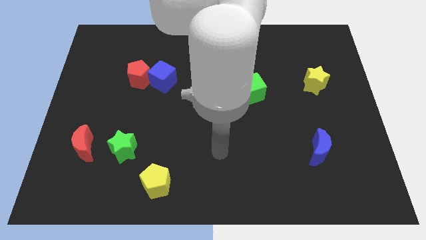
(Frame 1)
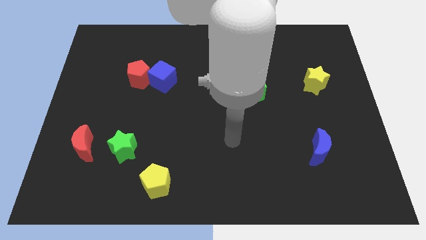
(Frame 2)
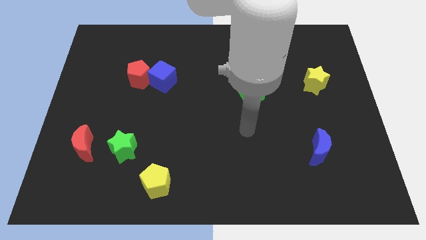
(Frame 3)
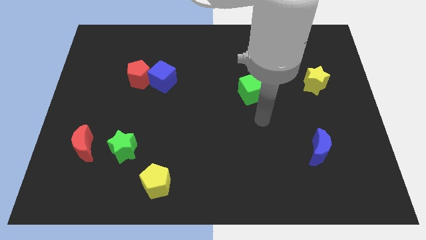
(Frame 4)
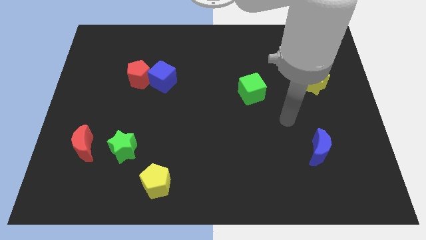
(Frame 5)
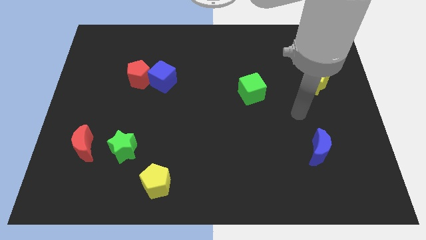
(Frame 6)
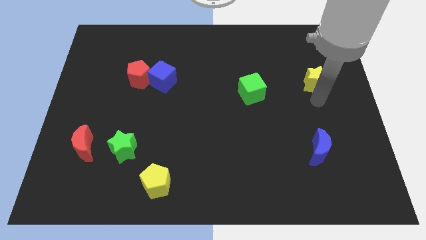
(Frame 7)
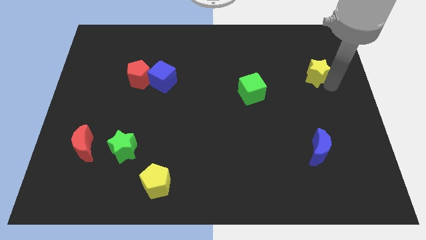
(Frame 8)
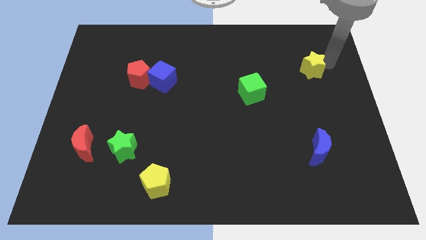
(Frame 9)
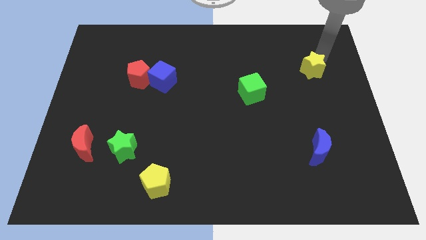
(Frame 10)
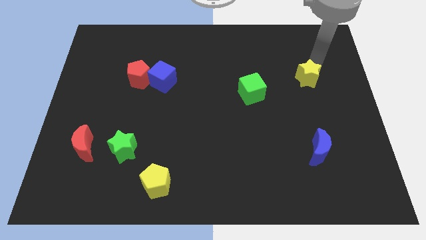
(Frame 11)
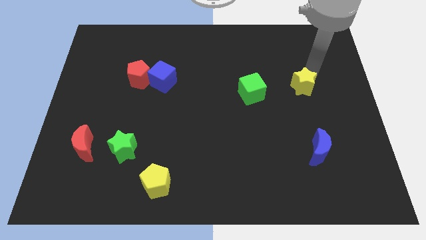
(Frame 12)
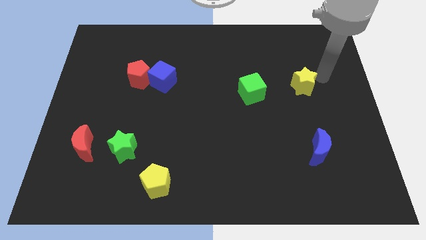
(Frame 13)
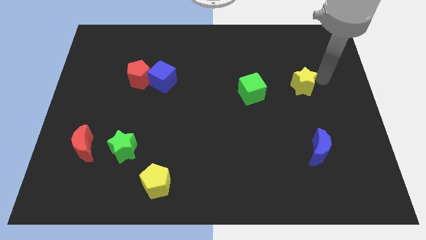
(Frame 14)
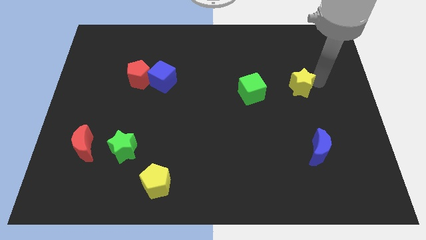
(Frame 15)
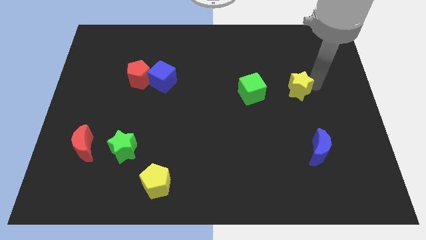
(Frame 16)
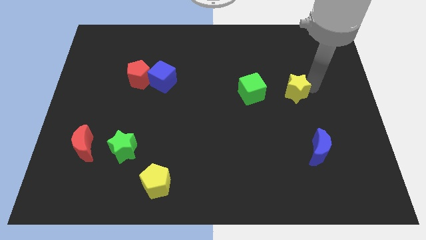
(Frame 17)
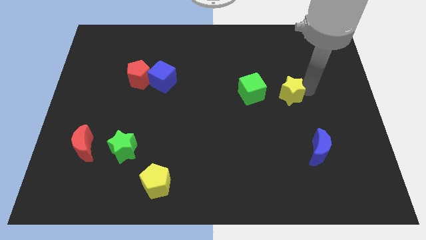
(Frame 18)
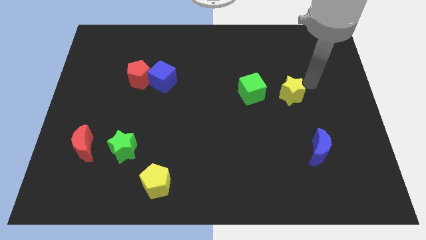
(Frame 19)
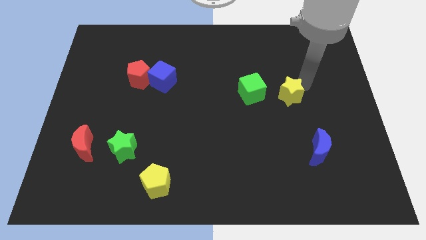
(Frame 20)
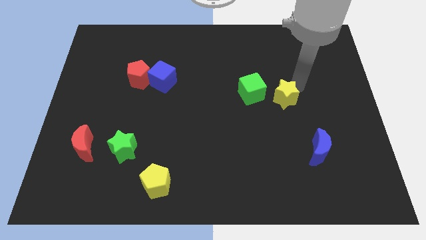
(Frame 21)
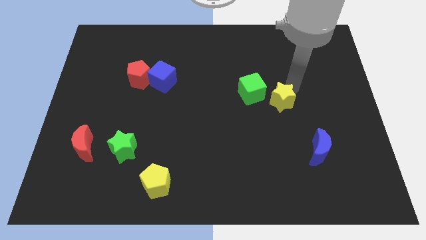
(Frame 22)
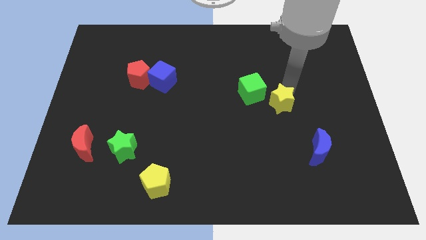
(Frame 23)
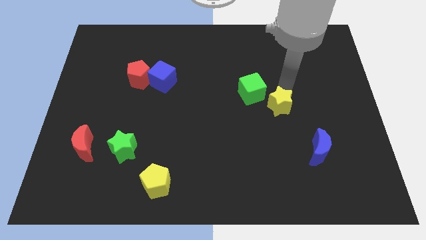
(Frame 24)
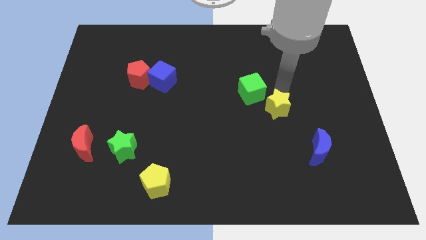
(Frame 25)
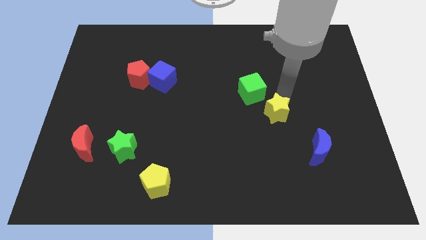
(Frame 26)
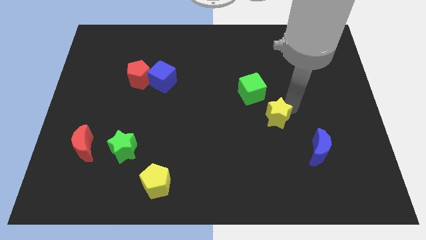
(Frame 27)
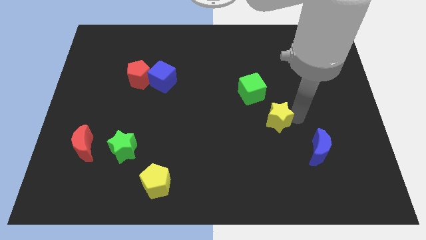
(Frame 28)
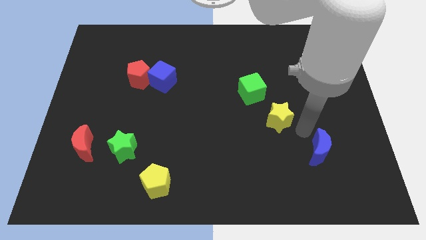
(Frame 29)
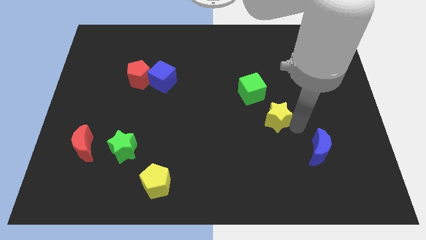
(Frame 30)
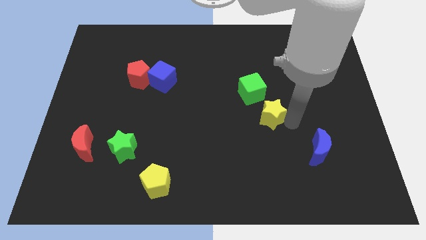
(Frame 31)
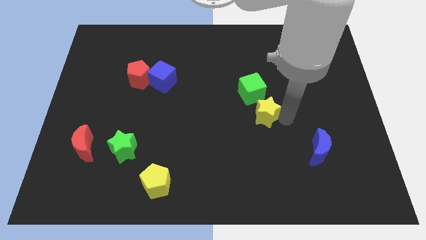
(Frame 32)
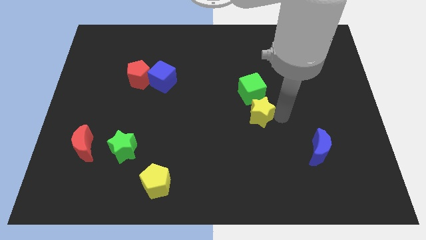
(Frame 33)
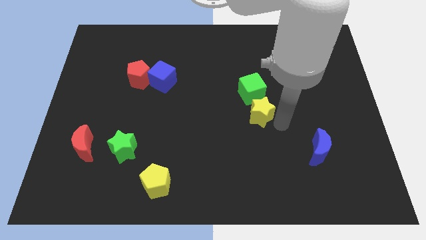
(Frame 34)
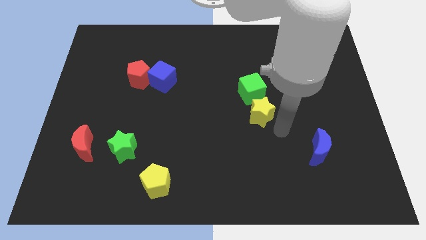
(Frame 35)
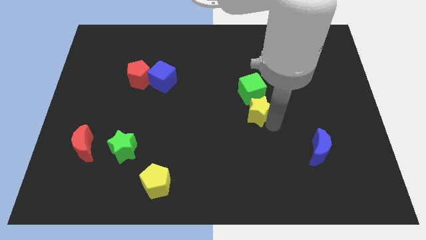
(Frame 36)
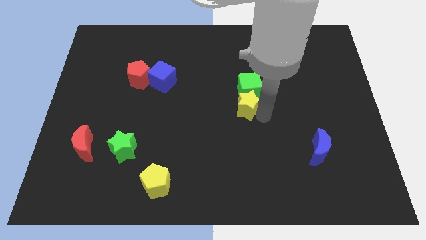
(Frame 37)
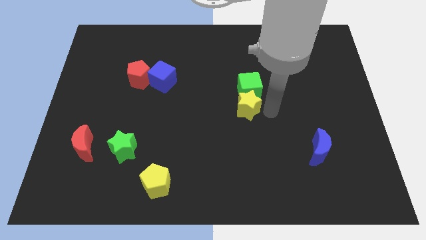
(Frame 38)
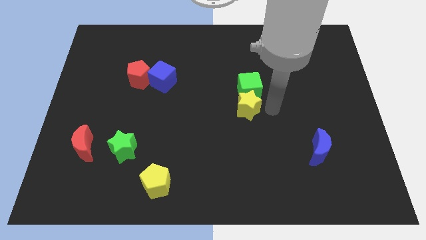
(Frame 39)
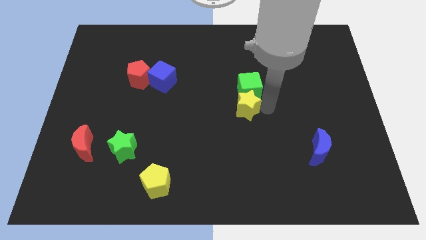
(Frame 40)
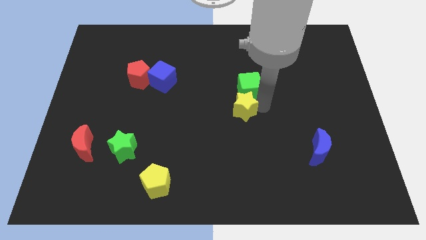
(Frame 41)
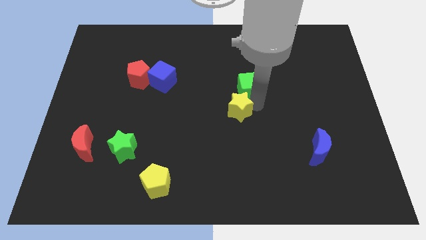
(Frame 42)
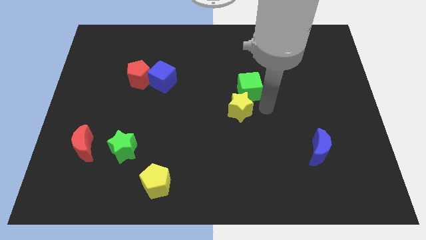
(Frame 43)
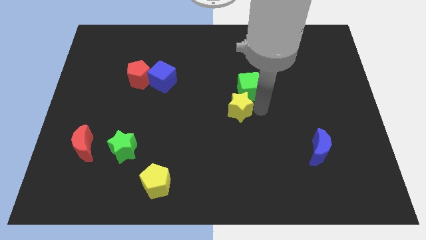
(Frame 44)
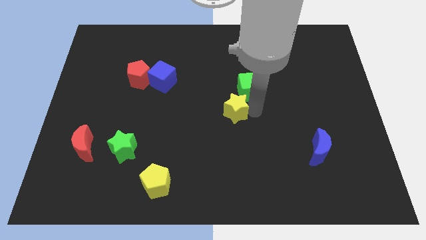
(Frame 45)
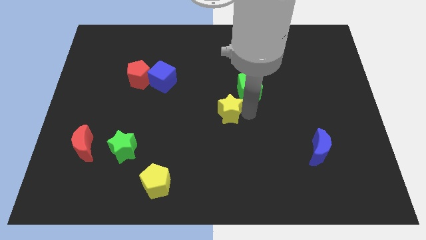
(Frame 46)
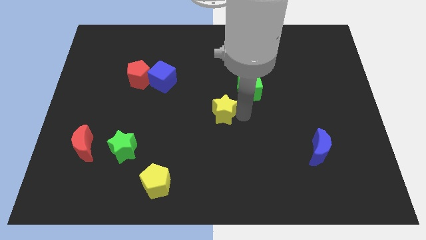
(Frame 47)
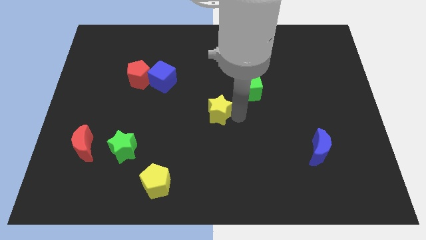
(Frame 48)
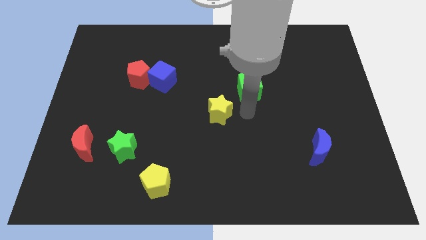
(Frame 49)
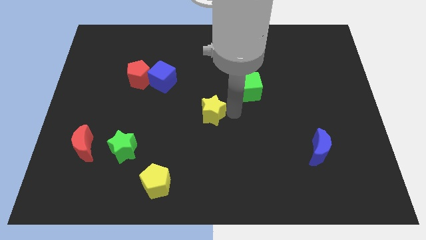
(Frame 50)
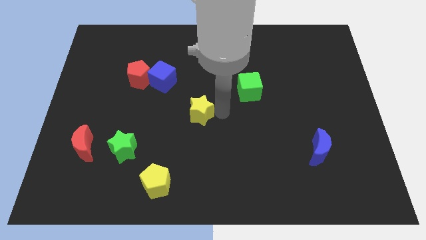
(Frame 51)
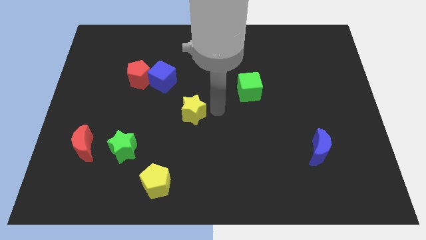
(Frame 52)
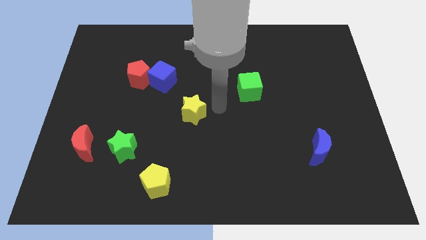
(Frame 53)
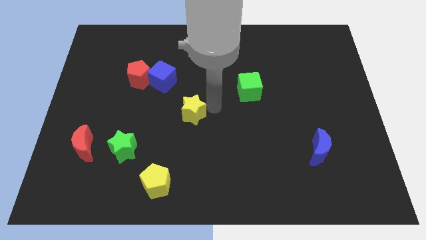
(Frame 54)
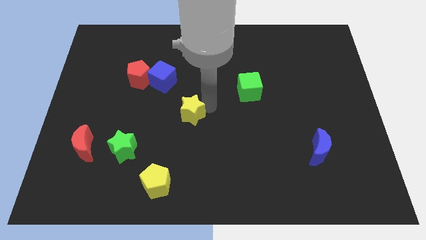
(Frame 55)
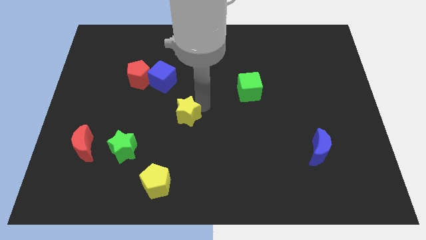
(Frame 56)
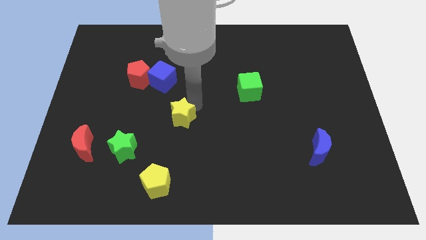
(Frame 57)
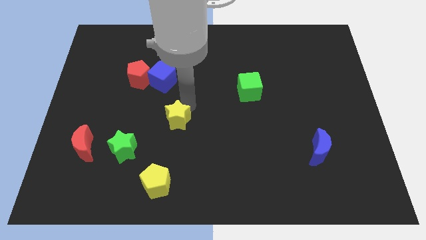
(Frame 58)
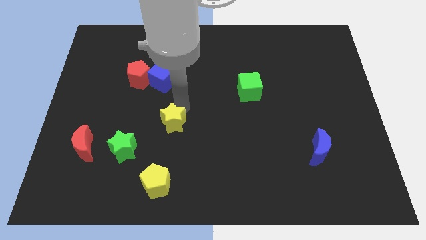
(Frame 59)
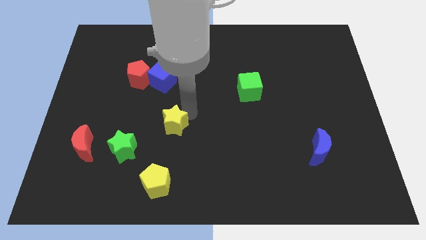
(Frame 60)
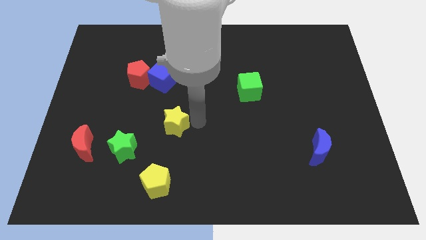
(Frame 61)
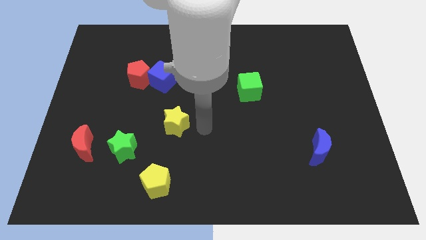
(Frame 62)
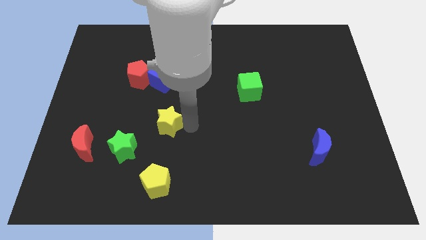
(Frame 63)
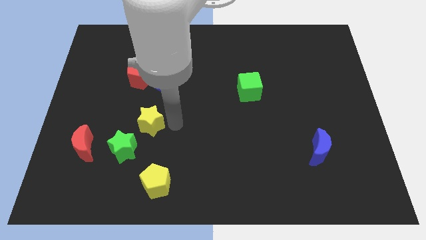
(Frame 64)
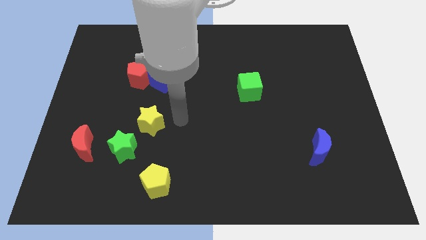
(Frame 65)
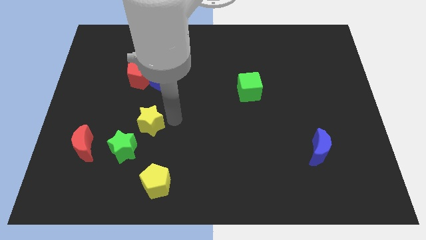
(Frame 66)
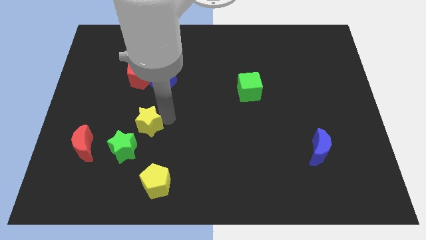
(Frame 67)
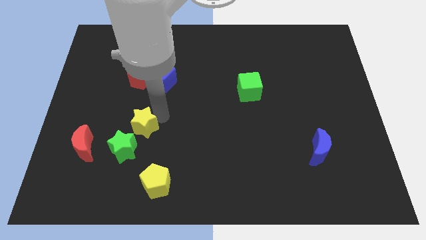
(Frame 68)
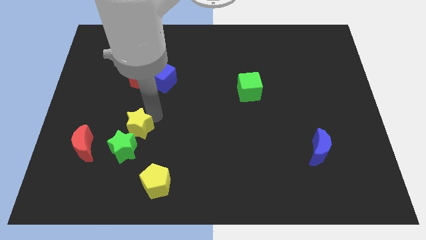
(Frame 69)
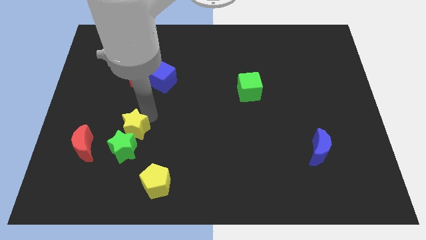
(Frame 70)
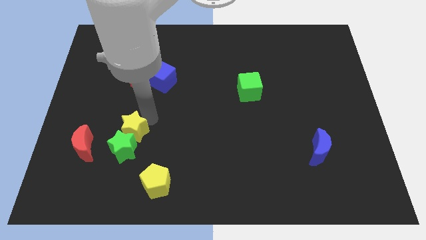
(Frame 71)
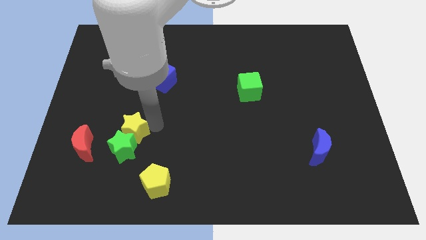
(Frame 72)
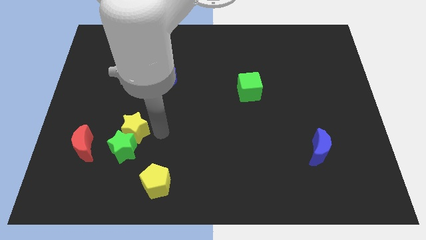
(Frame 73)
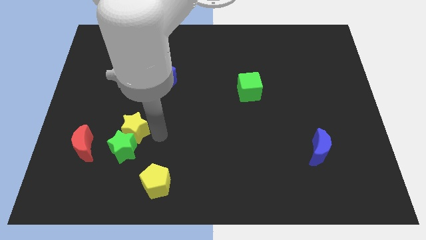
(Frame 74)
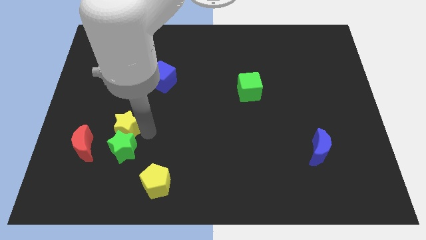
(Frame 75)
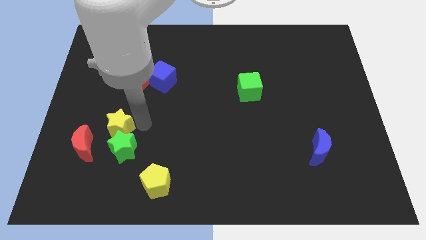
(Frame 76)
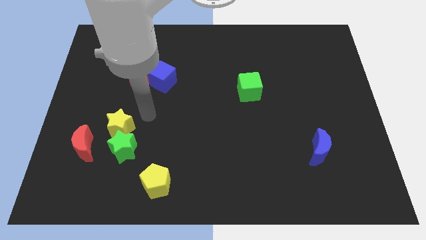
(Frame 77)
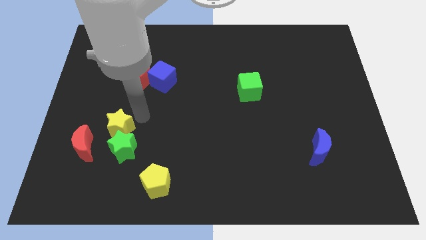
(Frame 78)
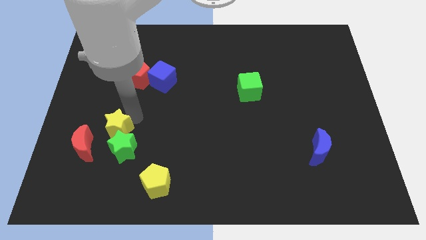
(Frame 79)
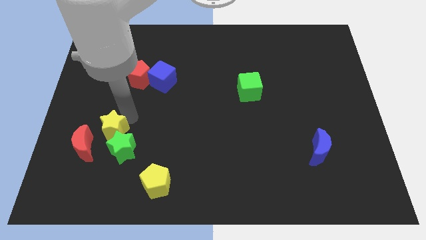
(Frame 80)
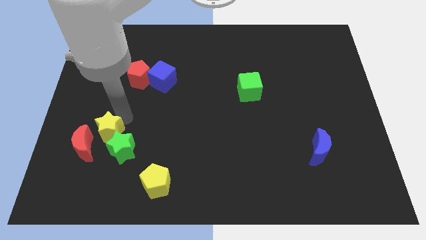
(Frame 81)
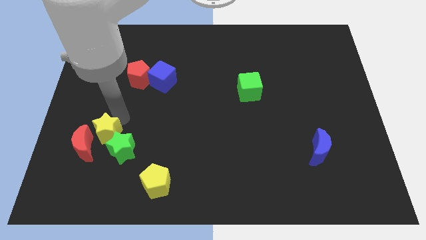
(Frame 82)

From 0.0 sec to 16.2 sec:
push the yellow star to the red moon
